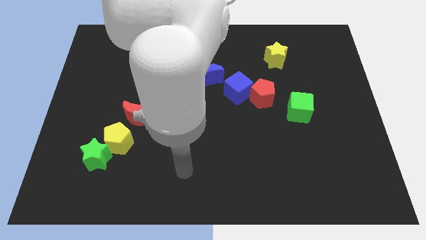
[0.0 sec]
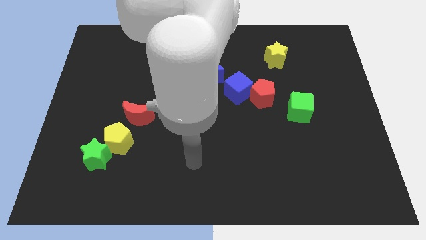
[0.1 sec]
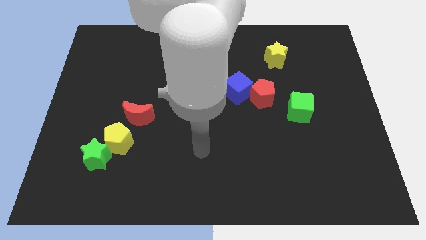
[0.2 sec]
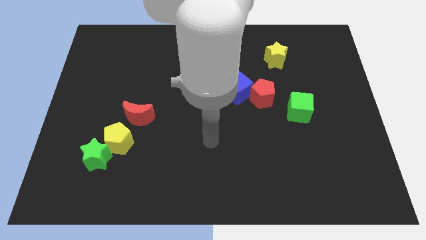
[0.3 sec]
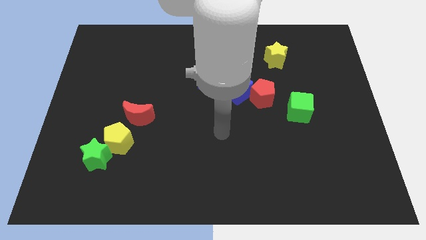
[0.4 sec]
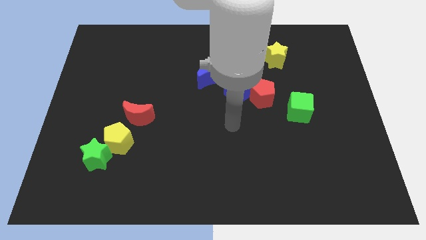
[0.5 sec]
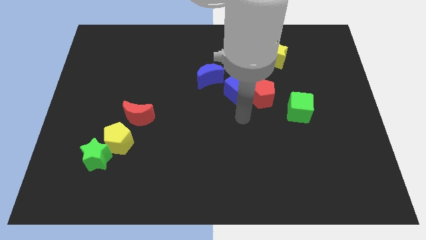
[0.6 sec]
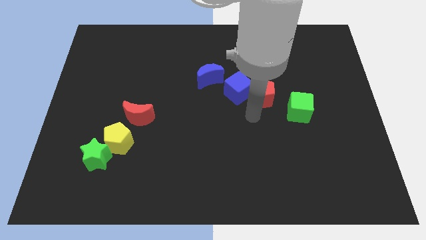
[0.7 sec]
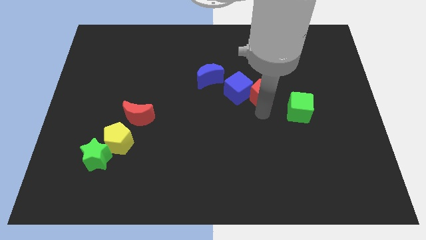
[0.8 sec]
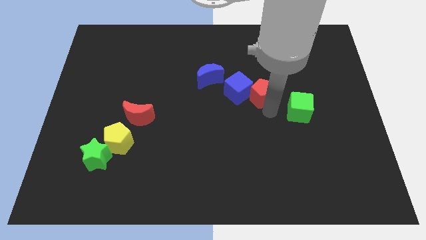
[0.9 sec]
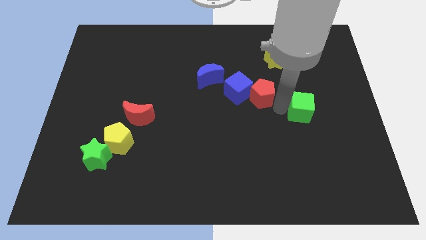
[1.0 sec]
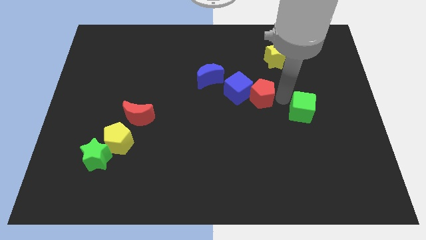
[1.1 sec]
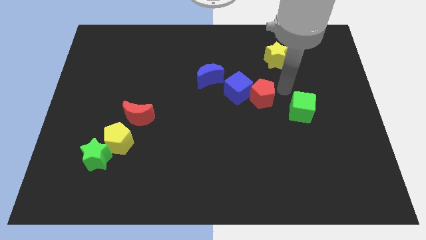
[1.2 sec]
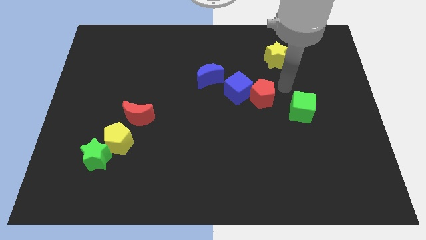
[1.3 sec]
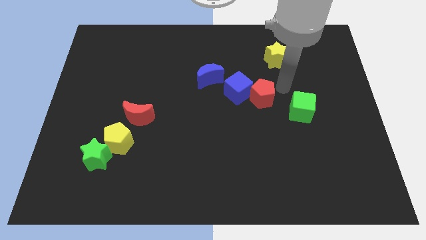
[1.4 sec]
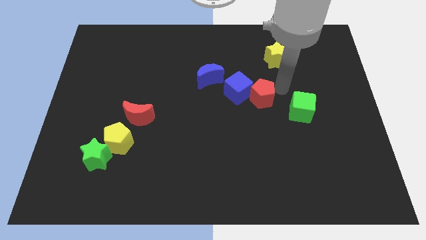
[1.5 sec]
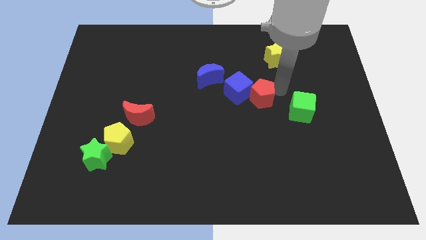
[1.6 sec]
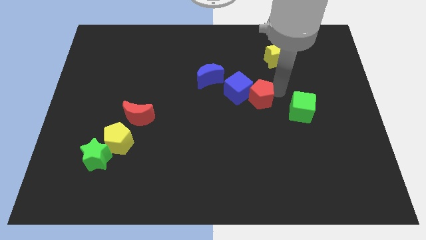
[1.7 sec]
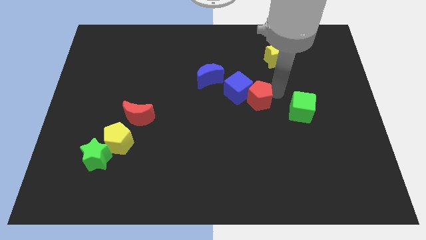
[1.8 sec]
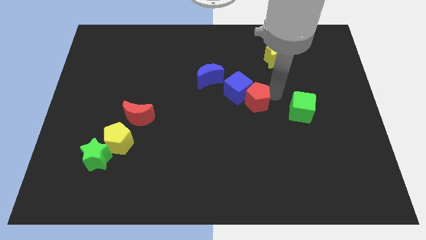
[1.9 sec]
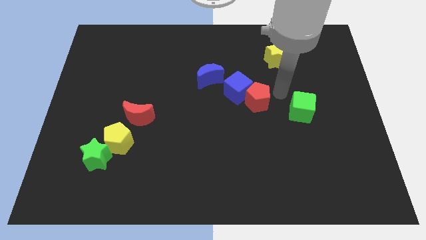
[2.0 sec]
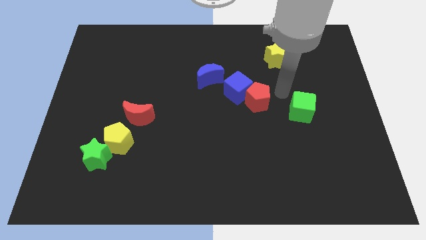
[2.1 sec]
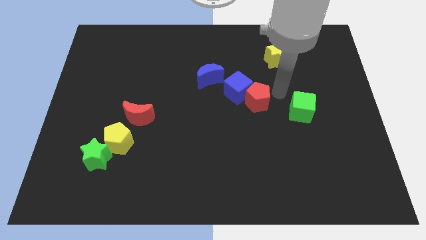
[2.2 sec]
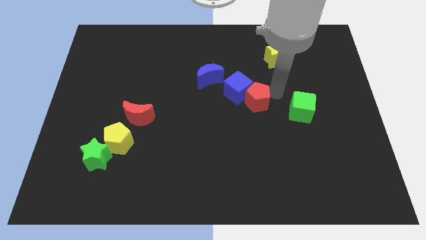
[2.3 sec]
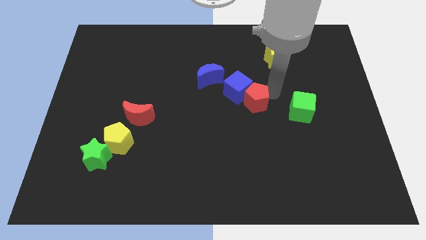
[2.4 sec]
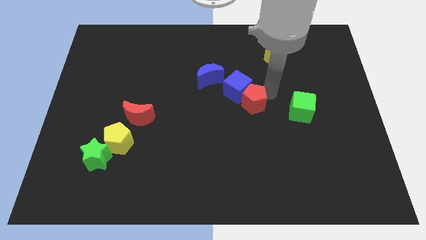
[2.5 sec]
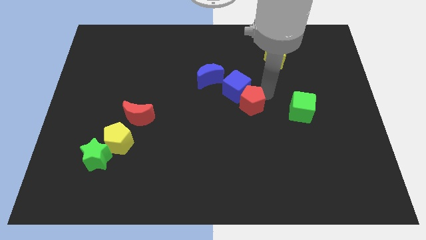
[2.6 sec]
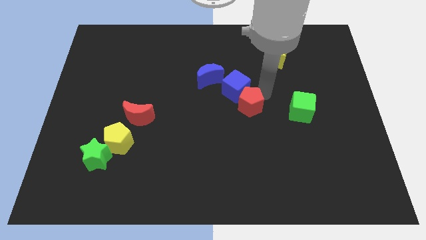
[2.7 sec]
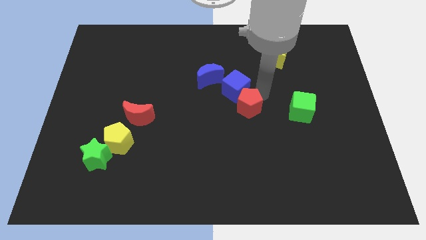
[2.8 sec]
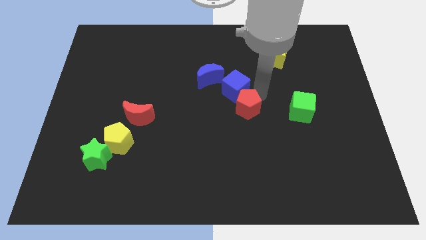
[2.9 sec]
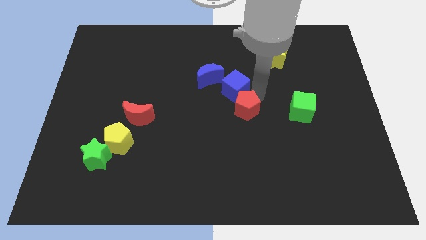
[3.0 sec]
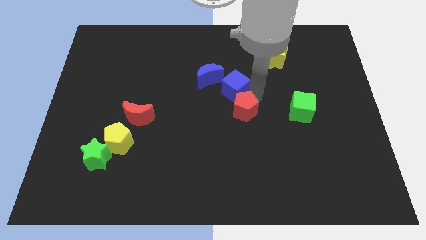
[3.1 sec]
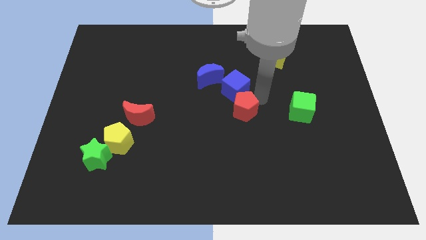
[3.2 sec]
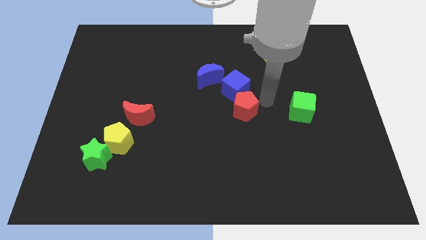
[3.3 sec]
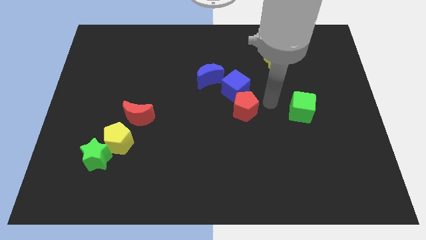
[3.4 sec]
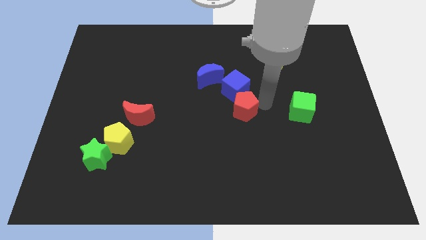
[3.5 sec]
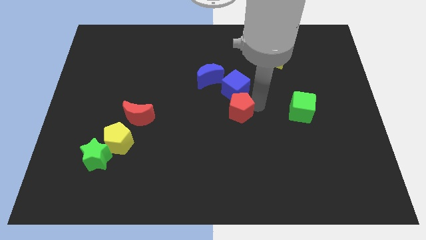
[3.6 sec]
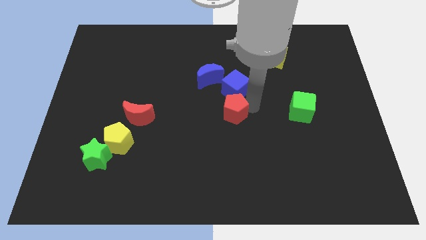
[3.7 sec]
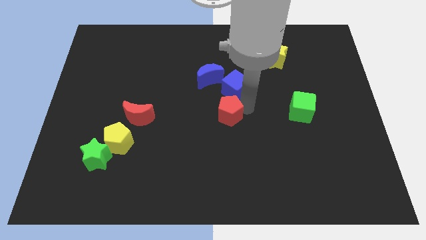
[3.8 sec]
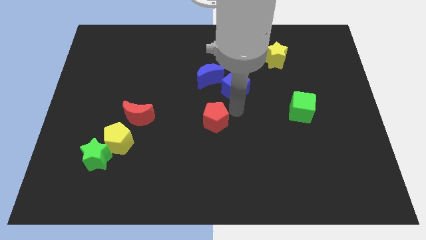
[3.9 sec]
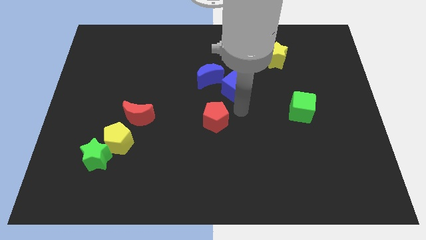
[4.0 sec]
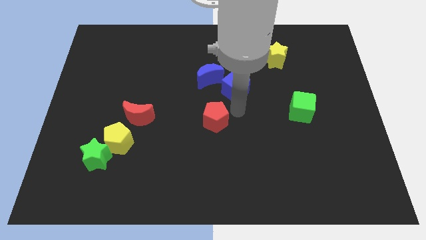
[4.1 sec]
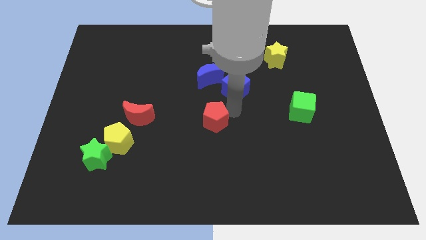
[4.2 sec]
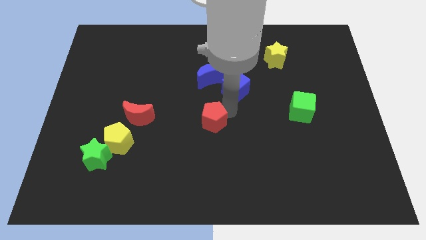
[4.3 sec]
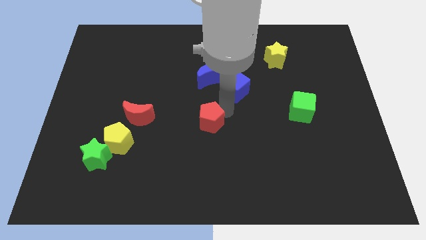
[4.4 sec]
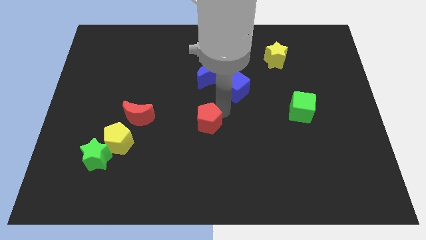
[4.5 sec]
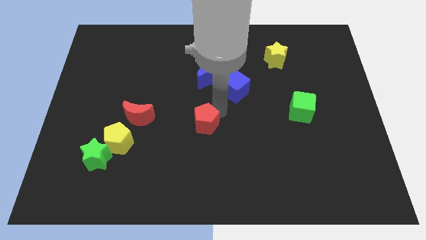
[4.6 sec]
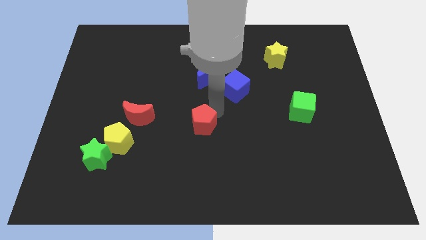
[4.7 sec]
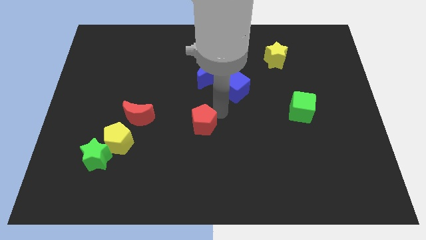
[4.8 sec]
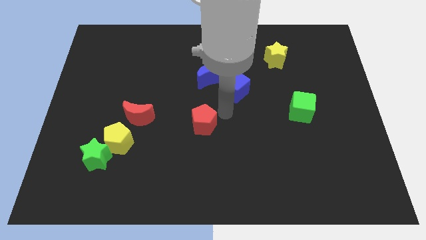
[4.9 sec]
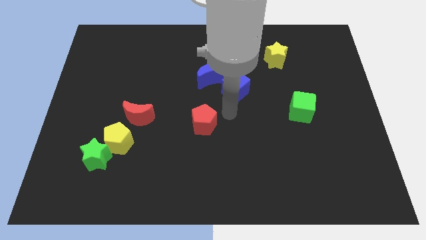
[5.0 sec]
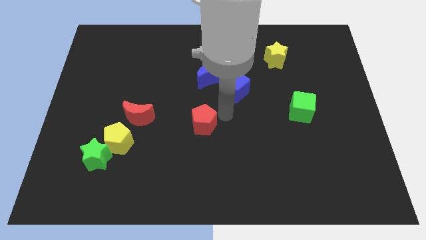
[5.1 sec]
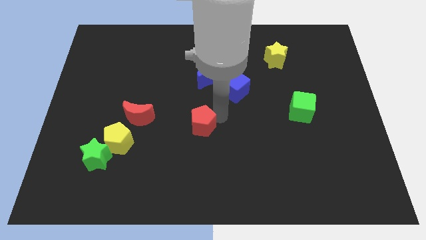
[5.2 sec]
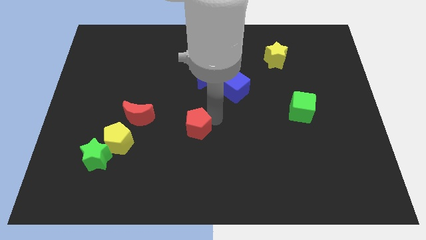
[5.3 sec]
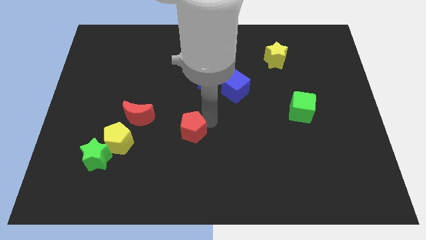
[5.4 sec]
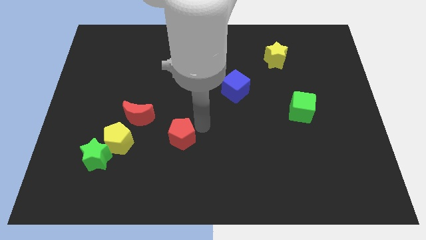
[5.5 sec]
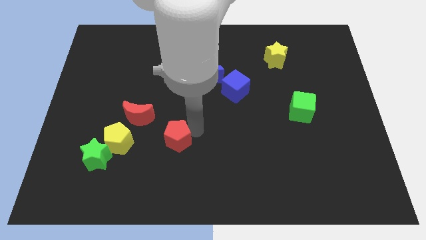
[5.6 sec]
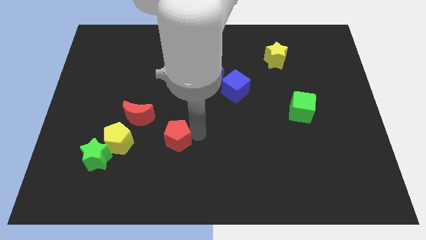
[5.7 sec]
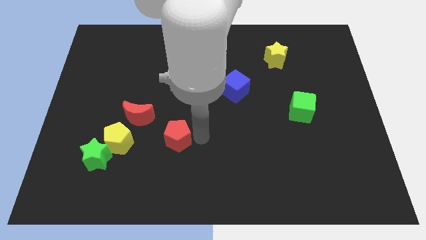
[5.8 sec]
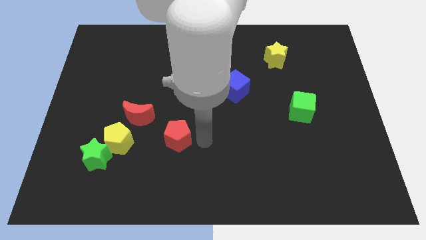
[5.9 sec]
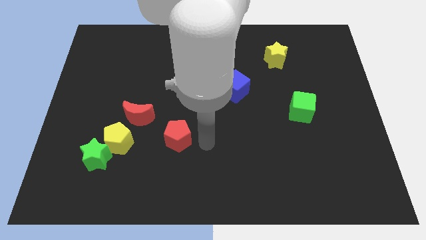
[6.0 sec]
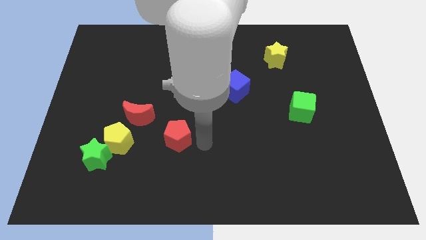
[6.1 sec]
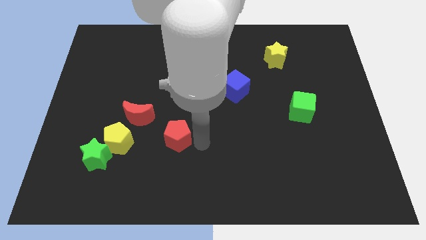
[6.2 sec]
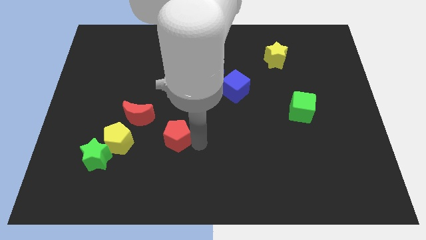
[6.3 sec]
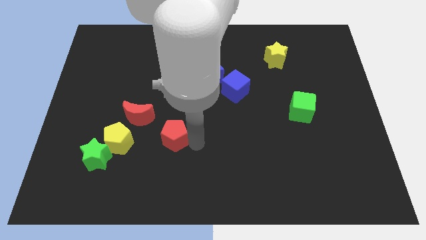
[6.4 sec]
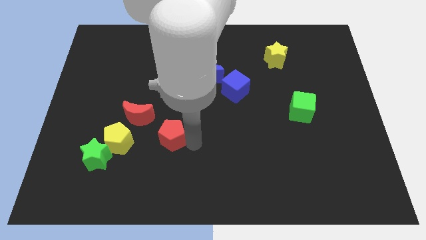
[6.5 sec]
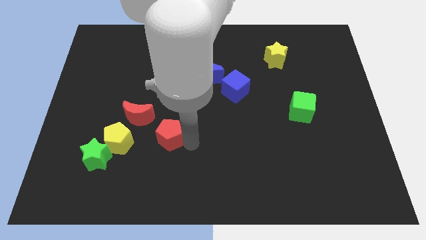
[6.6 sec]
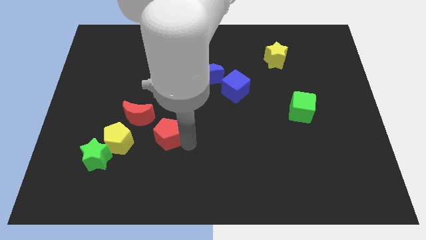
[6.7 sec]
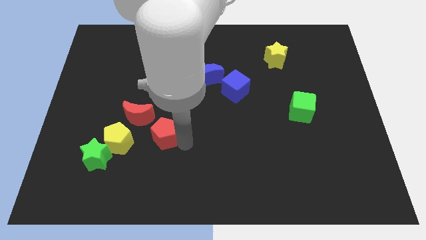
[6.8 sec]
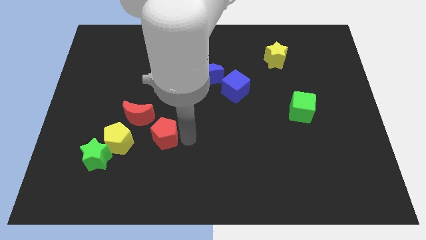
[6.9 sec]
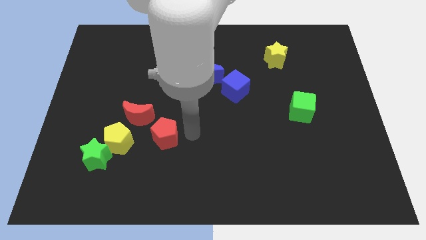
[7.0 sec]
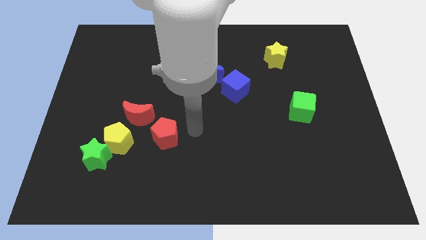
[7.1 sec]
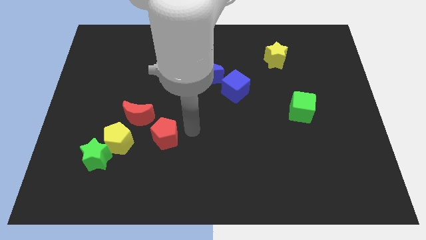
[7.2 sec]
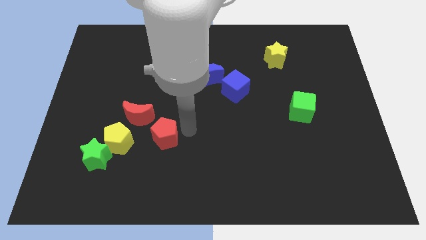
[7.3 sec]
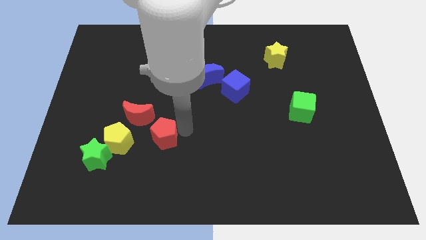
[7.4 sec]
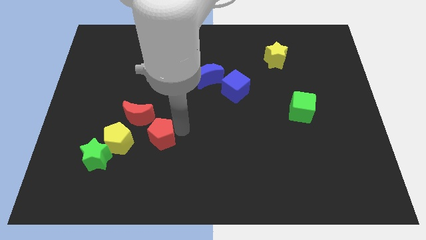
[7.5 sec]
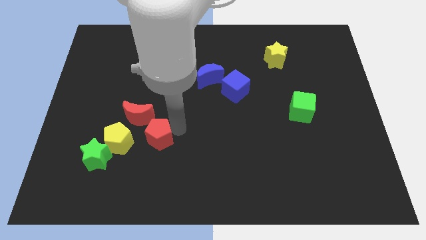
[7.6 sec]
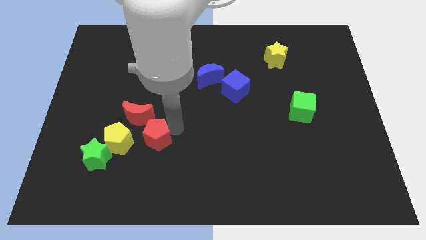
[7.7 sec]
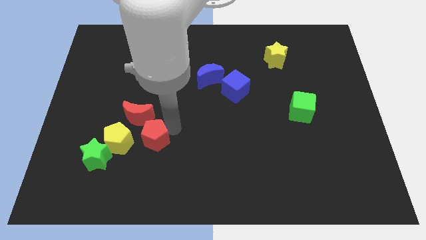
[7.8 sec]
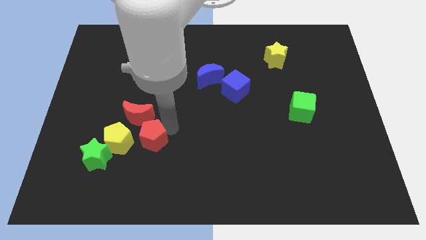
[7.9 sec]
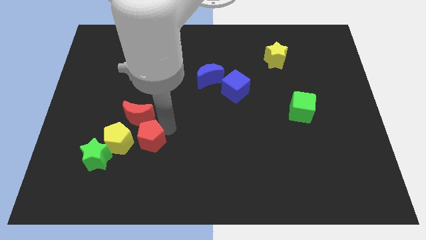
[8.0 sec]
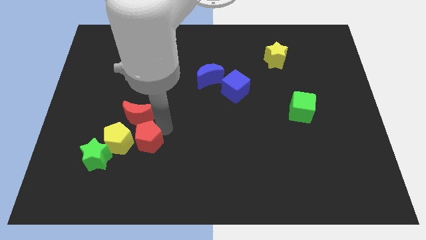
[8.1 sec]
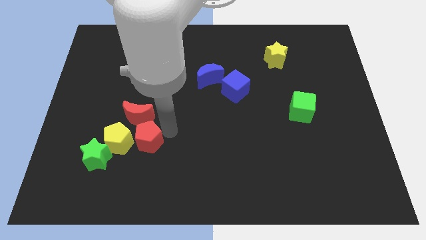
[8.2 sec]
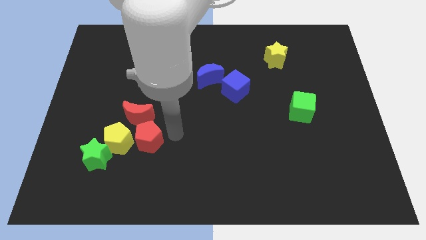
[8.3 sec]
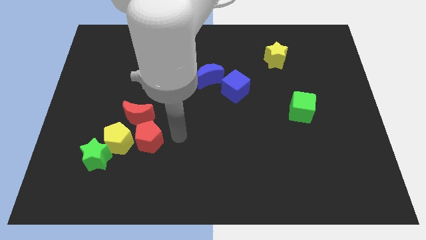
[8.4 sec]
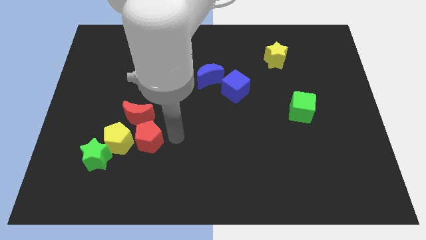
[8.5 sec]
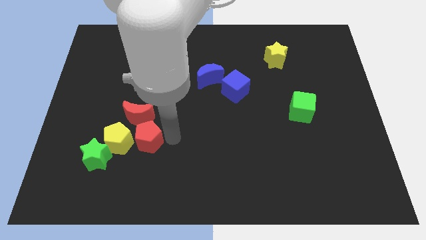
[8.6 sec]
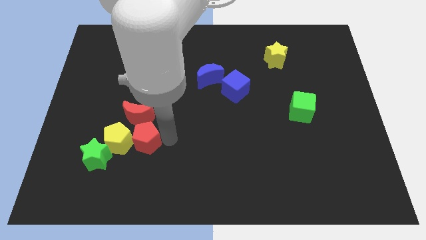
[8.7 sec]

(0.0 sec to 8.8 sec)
move the red pentagon next to the yellow pentagon
